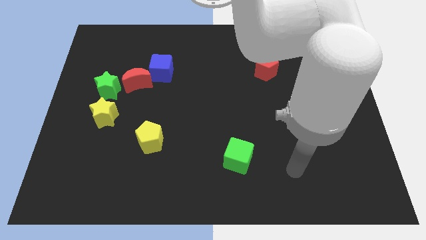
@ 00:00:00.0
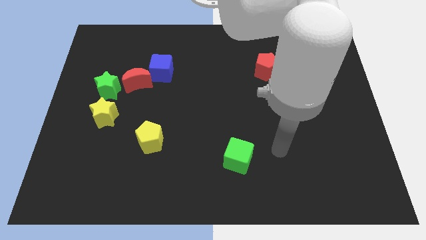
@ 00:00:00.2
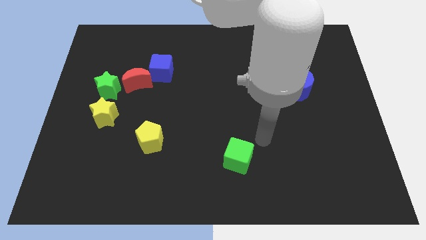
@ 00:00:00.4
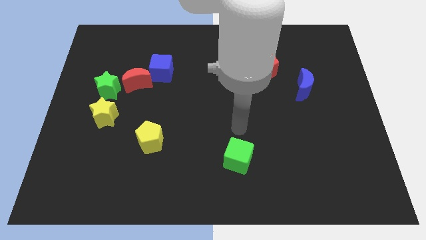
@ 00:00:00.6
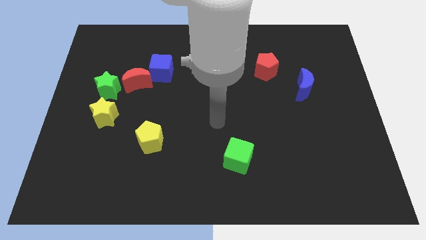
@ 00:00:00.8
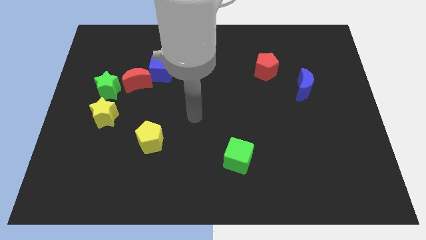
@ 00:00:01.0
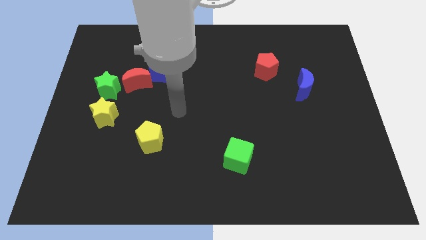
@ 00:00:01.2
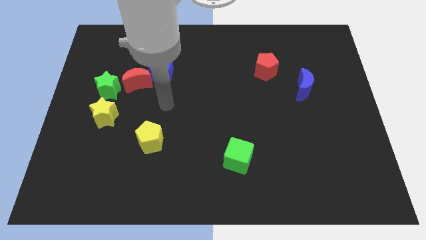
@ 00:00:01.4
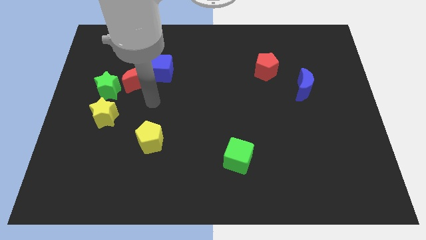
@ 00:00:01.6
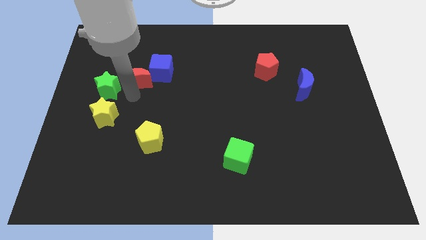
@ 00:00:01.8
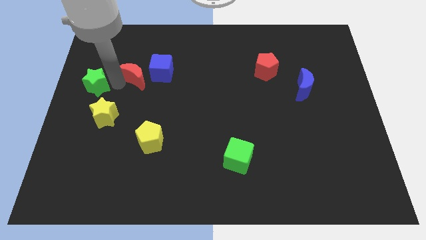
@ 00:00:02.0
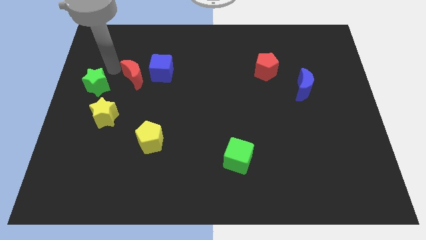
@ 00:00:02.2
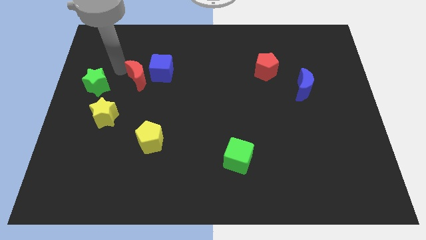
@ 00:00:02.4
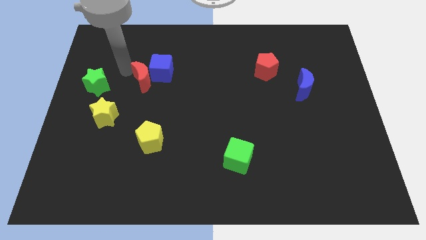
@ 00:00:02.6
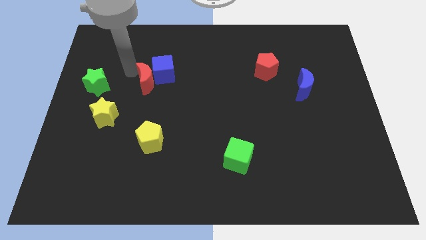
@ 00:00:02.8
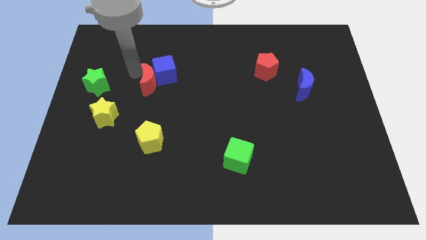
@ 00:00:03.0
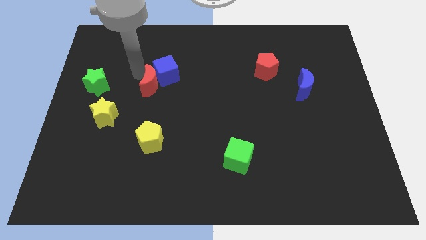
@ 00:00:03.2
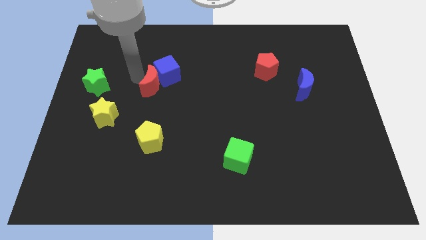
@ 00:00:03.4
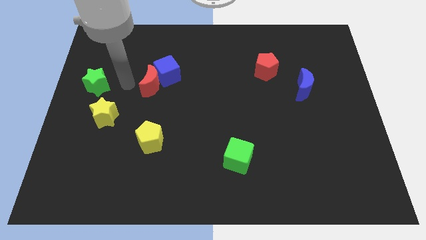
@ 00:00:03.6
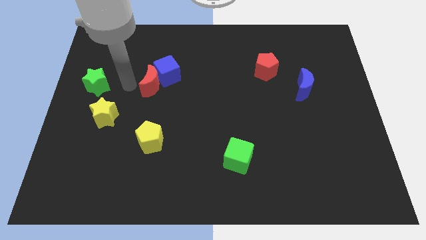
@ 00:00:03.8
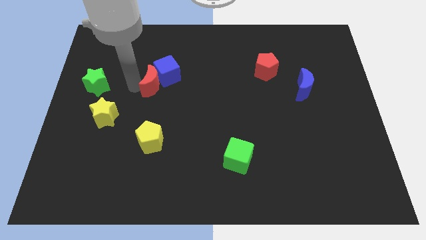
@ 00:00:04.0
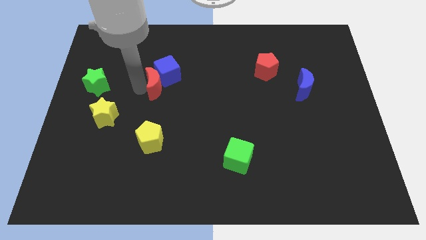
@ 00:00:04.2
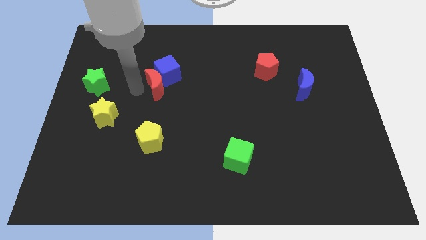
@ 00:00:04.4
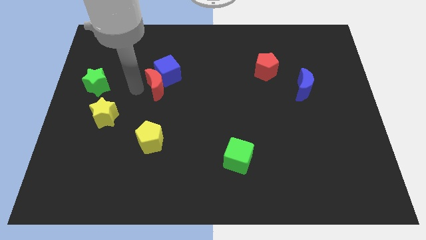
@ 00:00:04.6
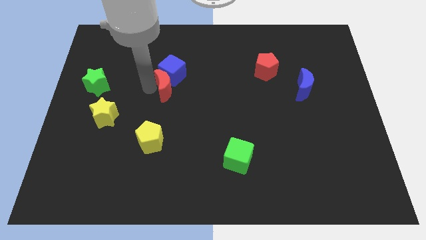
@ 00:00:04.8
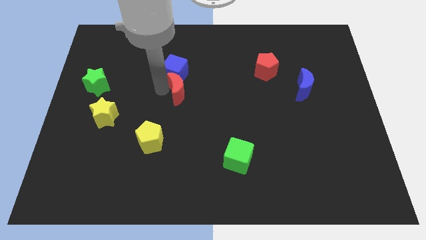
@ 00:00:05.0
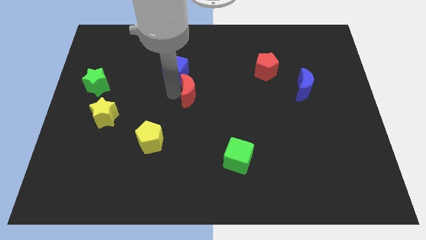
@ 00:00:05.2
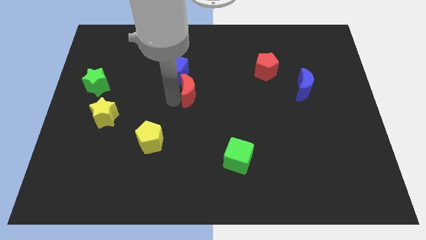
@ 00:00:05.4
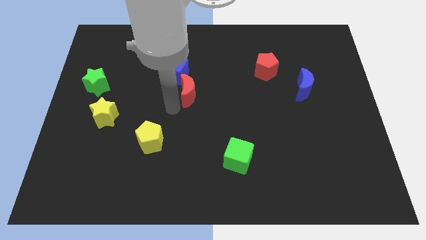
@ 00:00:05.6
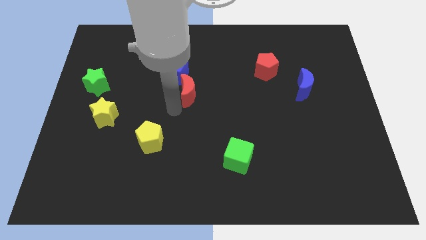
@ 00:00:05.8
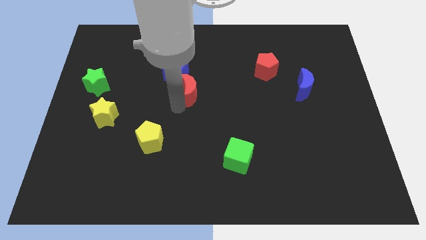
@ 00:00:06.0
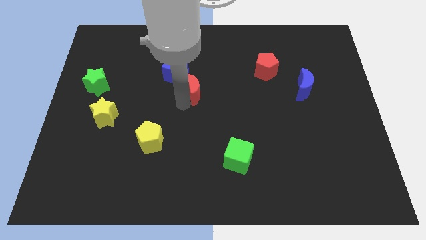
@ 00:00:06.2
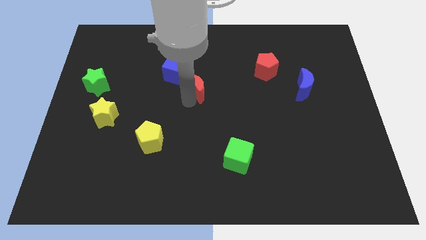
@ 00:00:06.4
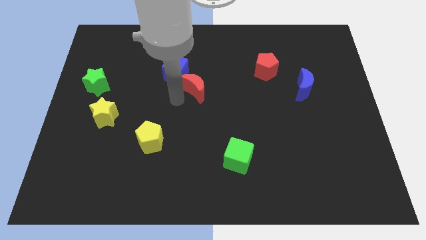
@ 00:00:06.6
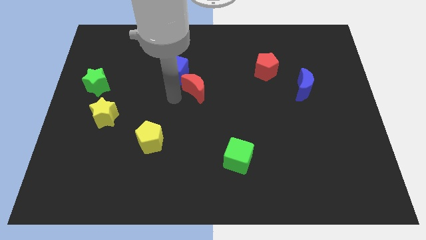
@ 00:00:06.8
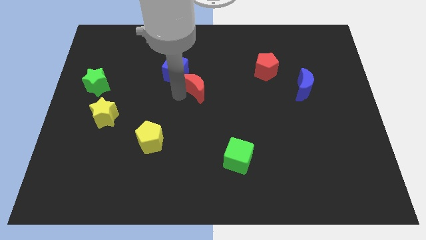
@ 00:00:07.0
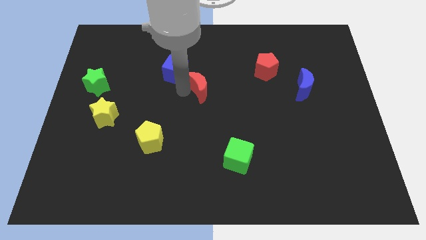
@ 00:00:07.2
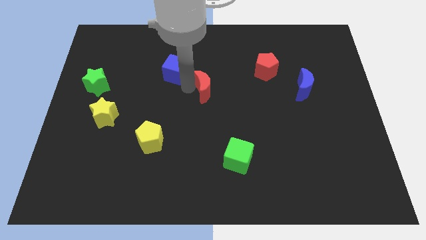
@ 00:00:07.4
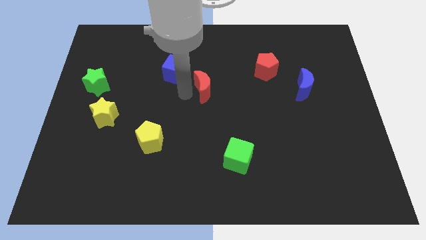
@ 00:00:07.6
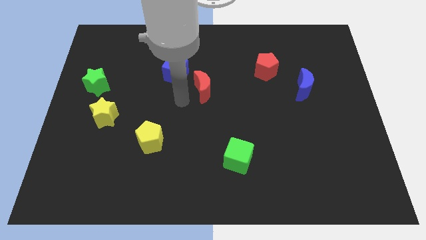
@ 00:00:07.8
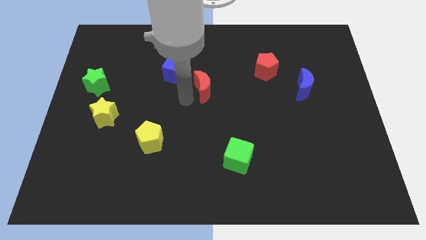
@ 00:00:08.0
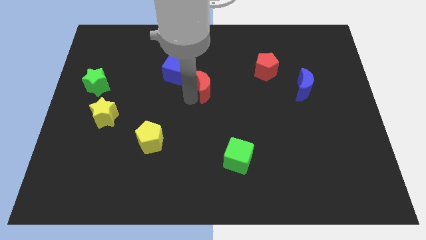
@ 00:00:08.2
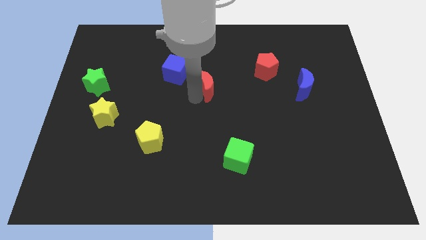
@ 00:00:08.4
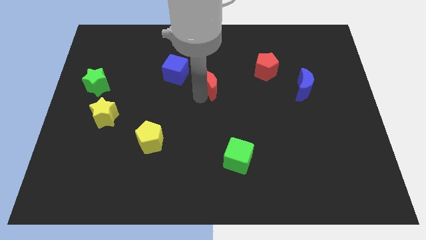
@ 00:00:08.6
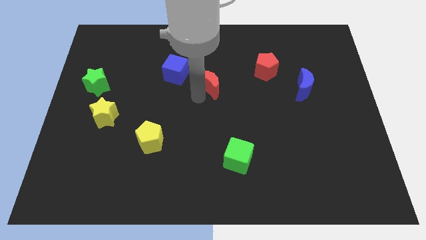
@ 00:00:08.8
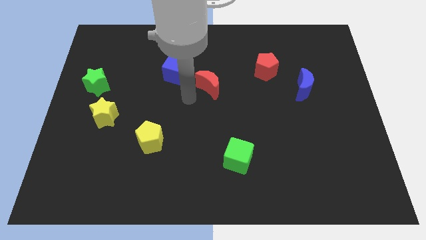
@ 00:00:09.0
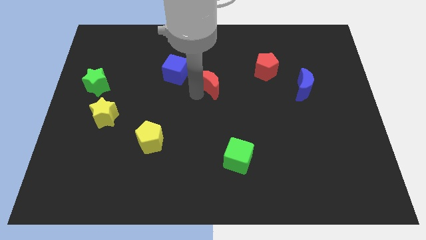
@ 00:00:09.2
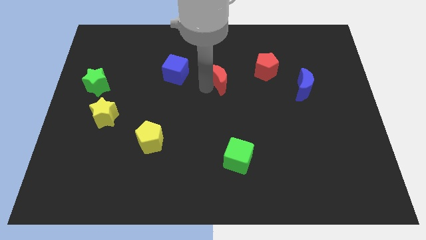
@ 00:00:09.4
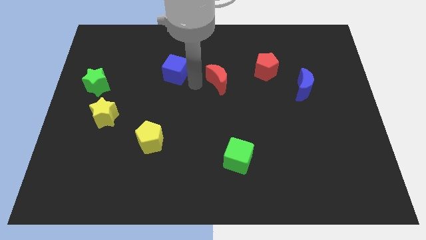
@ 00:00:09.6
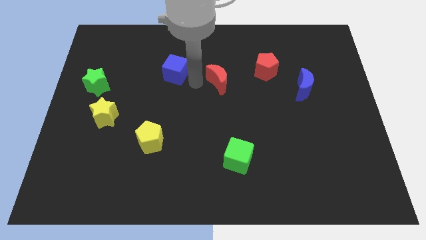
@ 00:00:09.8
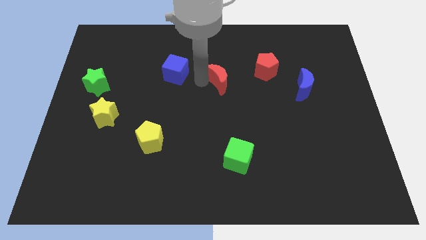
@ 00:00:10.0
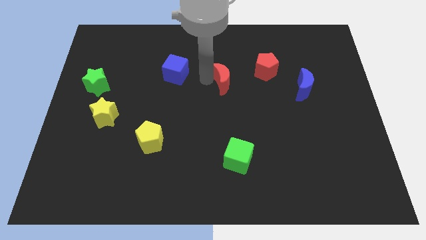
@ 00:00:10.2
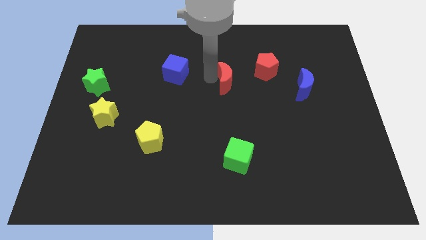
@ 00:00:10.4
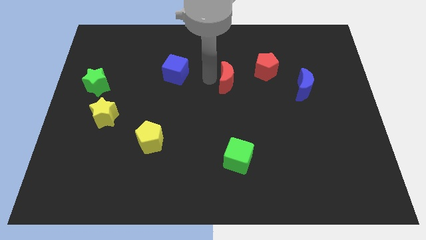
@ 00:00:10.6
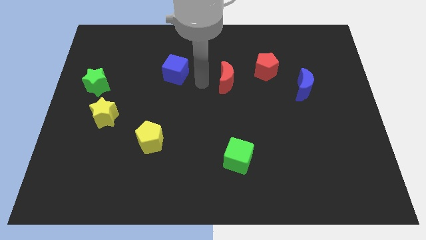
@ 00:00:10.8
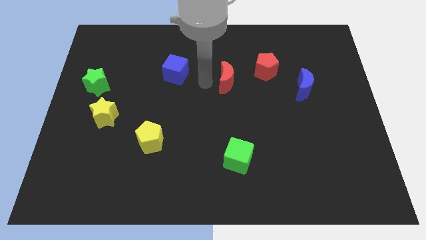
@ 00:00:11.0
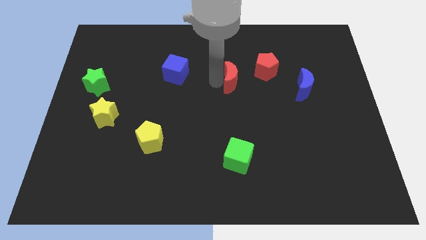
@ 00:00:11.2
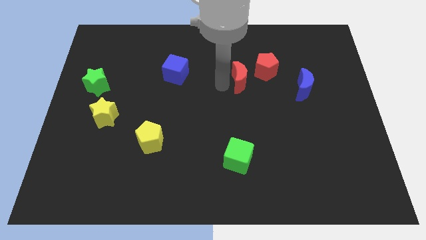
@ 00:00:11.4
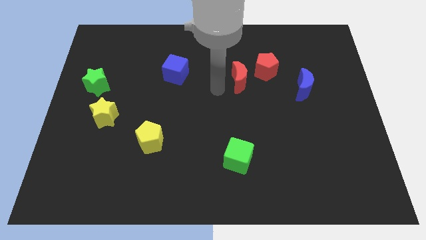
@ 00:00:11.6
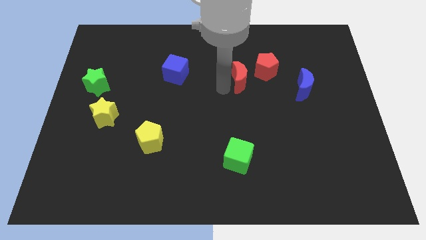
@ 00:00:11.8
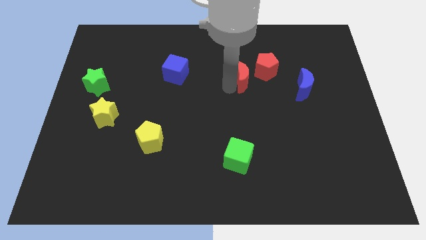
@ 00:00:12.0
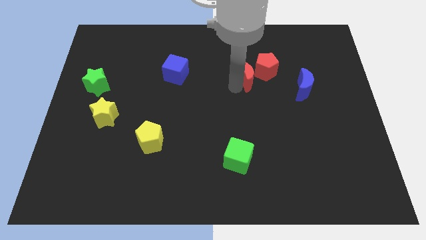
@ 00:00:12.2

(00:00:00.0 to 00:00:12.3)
move the red moon towards the red pentagon

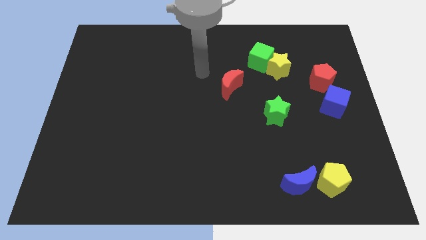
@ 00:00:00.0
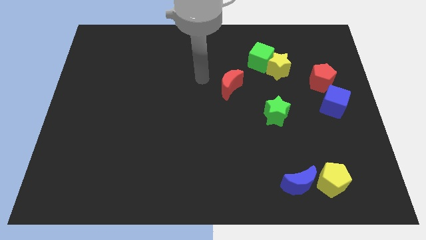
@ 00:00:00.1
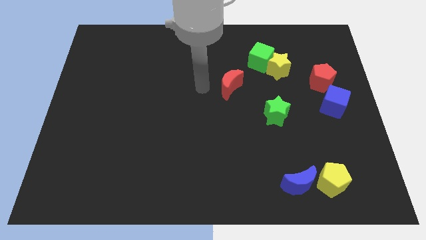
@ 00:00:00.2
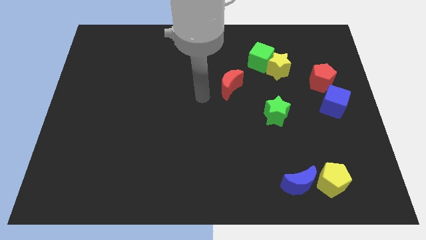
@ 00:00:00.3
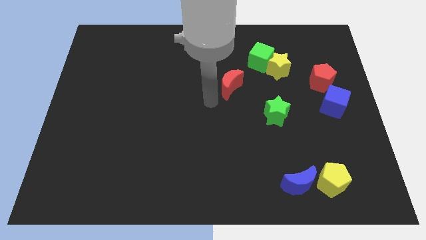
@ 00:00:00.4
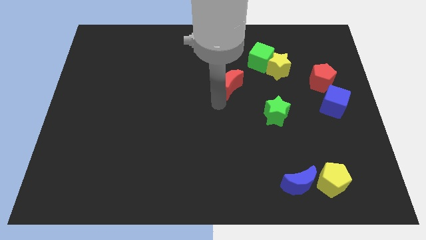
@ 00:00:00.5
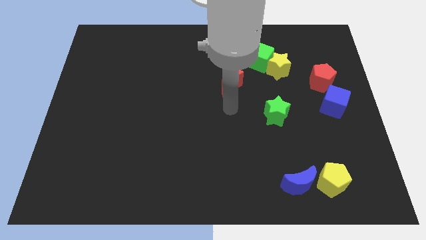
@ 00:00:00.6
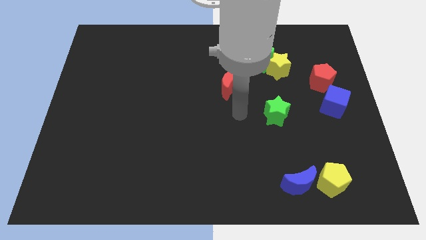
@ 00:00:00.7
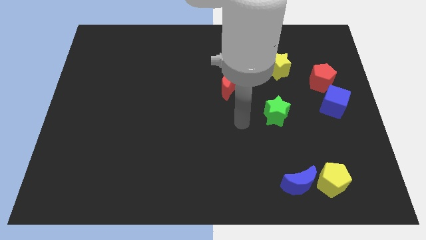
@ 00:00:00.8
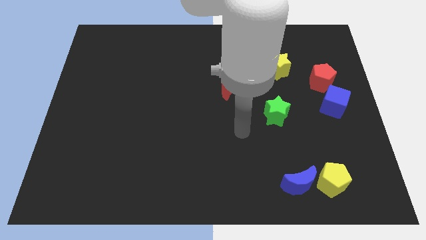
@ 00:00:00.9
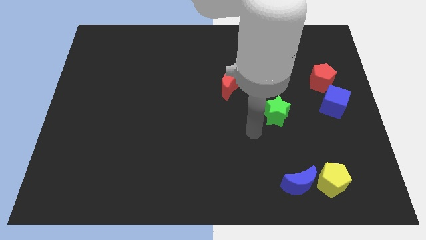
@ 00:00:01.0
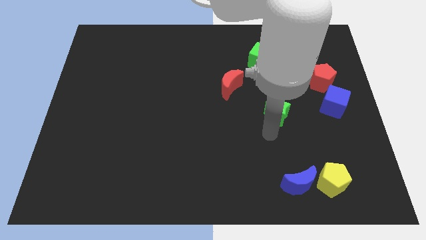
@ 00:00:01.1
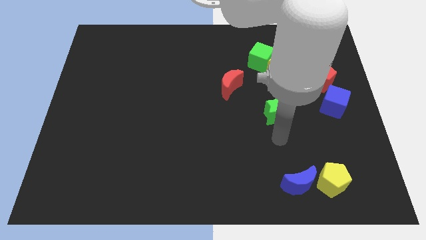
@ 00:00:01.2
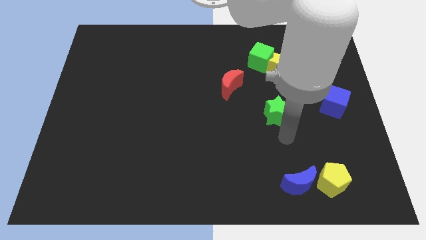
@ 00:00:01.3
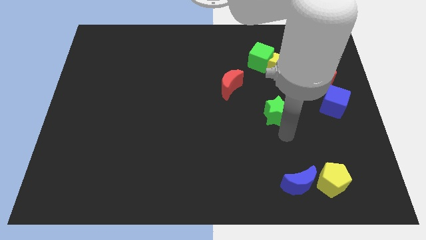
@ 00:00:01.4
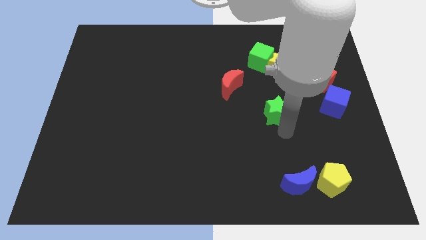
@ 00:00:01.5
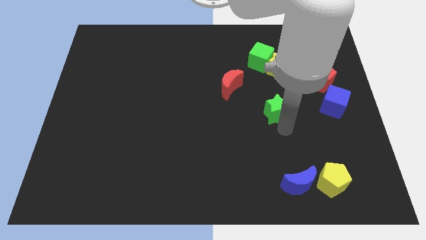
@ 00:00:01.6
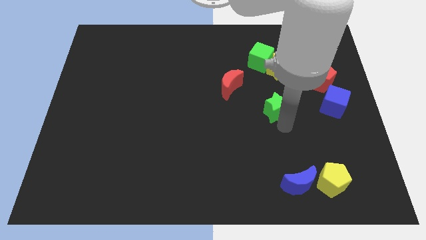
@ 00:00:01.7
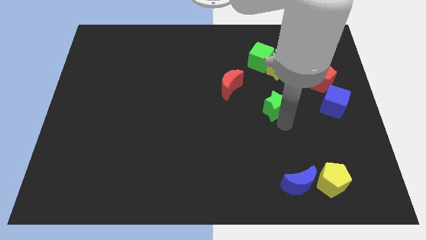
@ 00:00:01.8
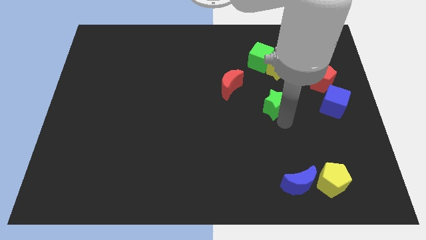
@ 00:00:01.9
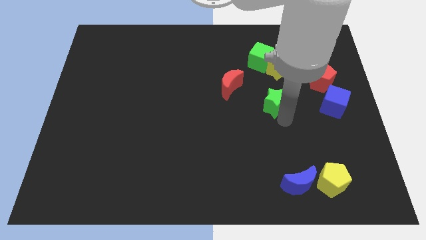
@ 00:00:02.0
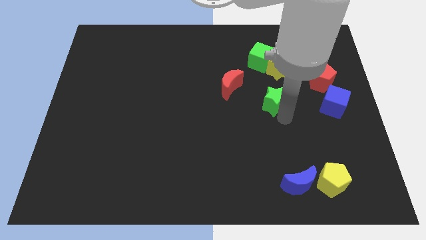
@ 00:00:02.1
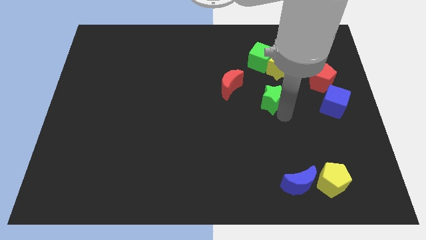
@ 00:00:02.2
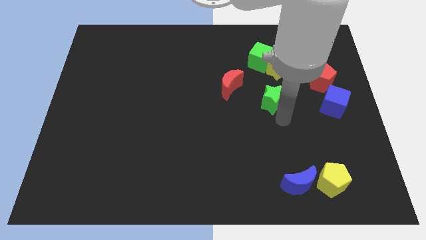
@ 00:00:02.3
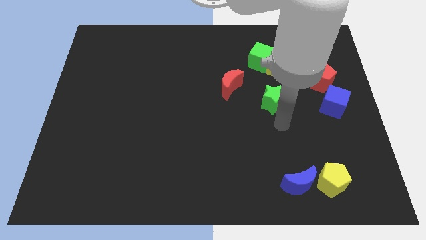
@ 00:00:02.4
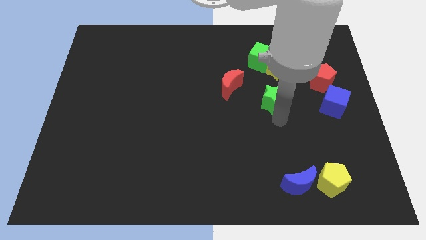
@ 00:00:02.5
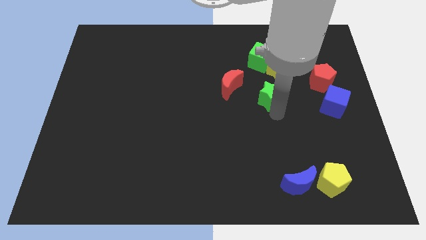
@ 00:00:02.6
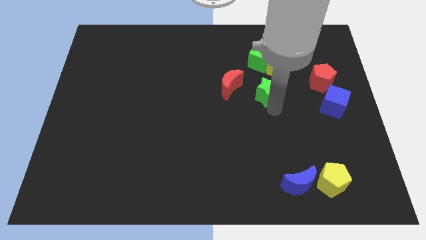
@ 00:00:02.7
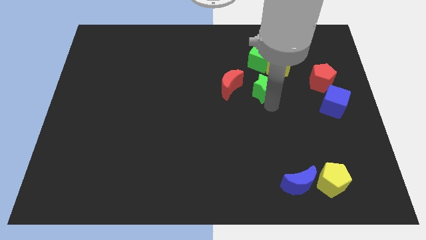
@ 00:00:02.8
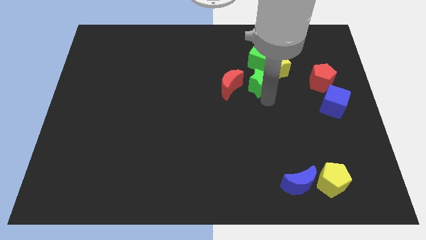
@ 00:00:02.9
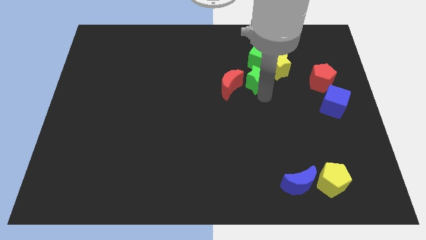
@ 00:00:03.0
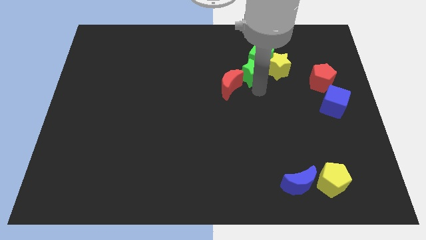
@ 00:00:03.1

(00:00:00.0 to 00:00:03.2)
push the green star to the green cube
